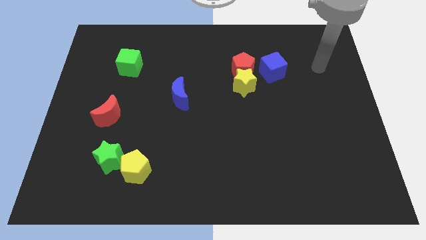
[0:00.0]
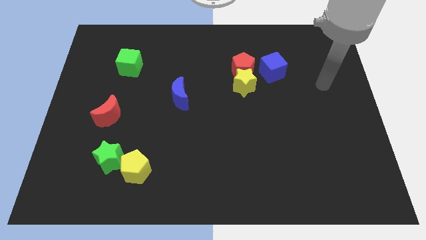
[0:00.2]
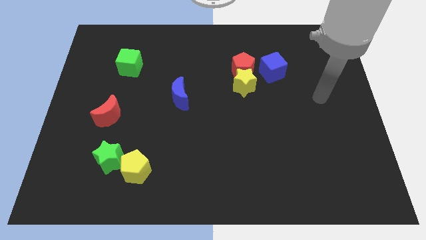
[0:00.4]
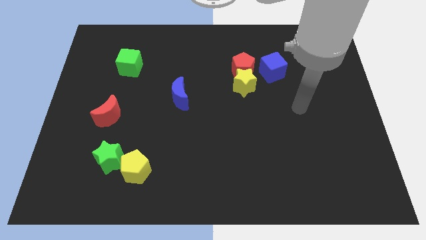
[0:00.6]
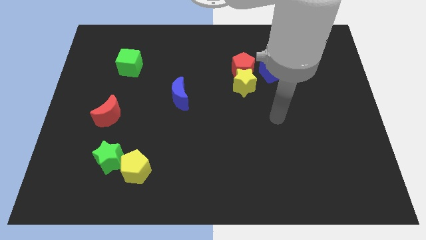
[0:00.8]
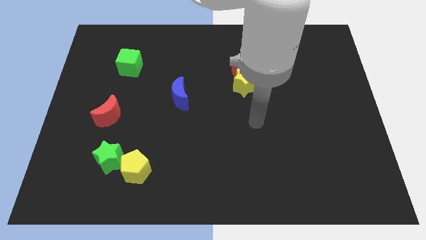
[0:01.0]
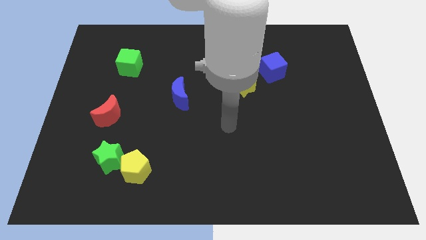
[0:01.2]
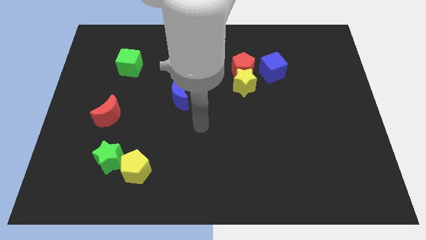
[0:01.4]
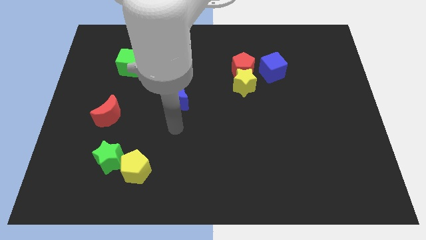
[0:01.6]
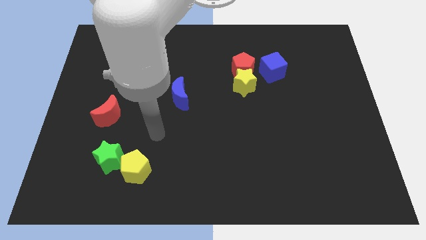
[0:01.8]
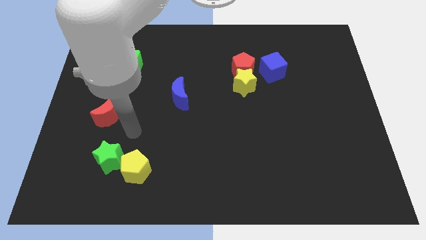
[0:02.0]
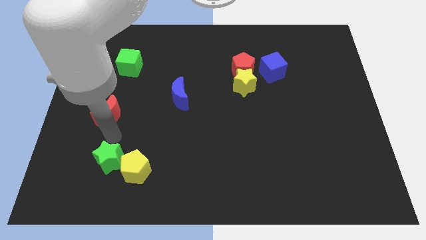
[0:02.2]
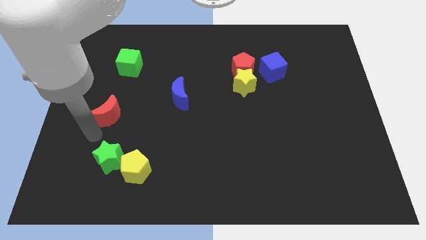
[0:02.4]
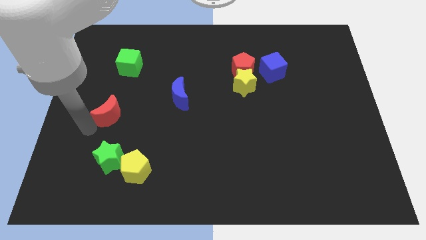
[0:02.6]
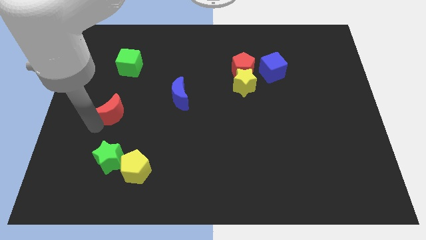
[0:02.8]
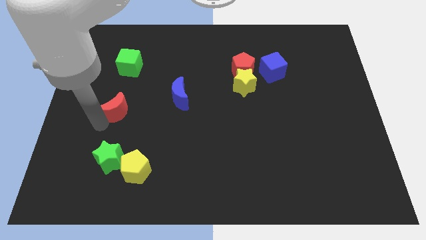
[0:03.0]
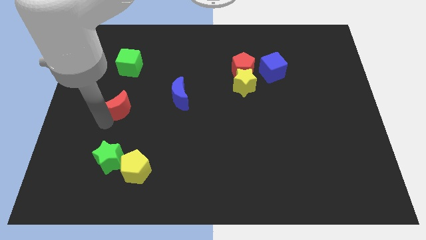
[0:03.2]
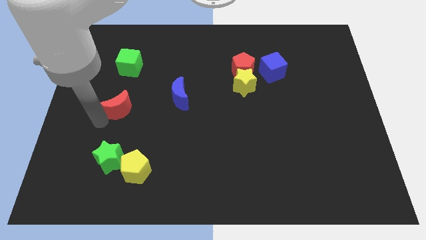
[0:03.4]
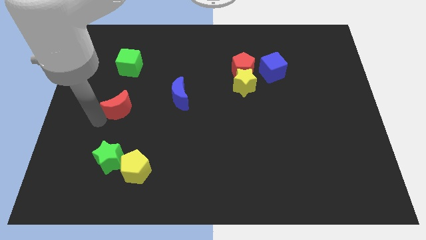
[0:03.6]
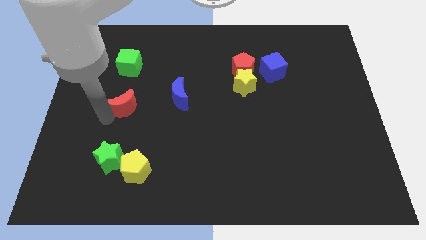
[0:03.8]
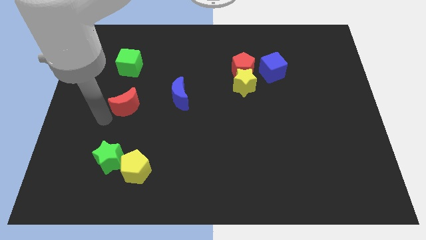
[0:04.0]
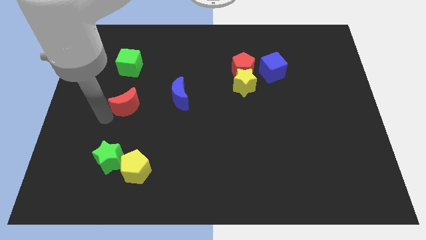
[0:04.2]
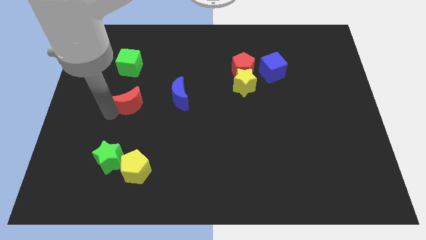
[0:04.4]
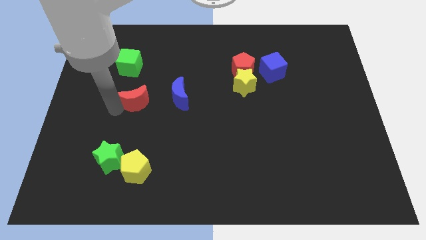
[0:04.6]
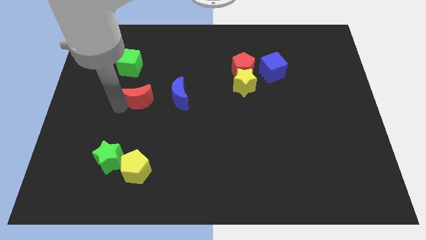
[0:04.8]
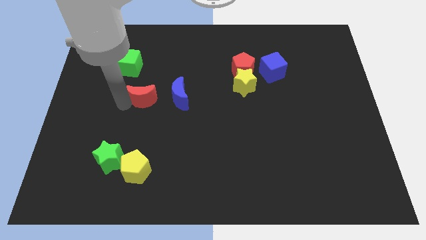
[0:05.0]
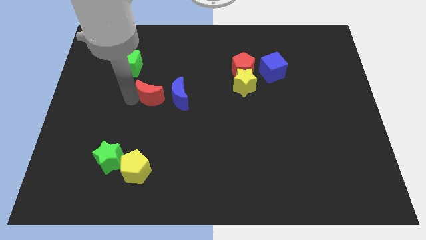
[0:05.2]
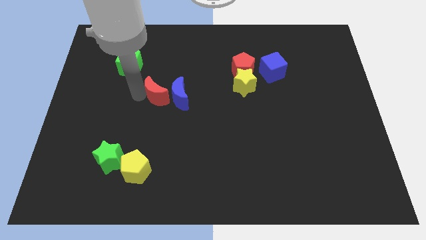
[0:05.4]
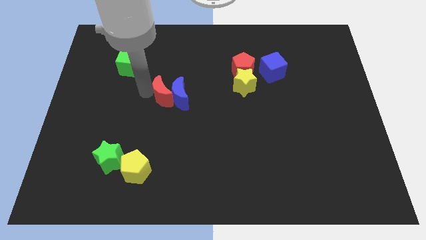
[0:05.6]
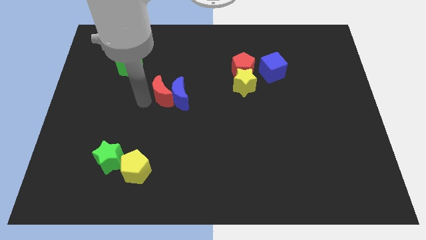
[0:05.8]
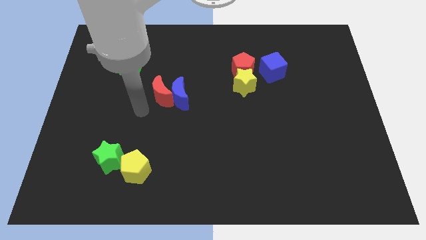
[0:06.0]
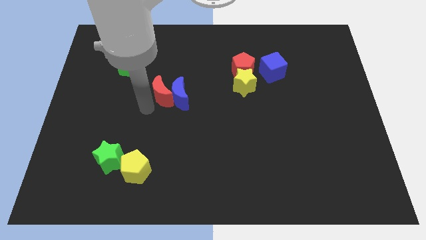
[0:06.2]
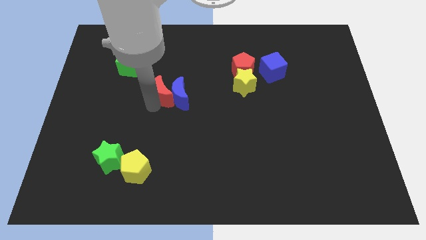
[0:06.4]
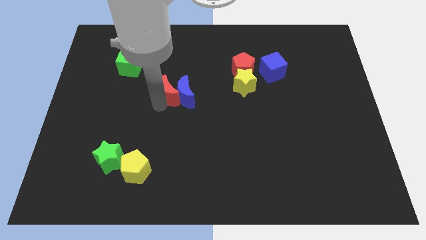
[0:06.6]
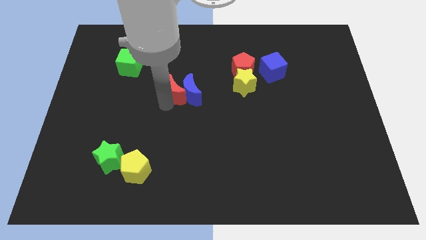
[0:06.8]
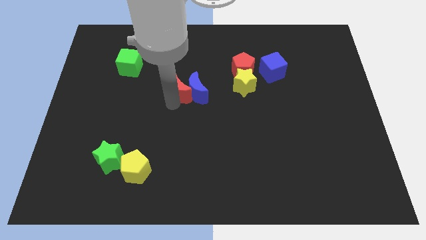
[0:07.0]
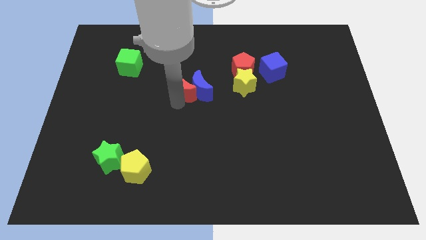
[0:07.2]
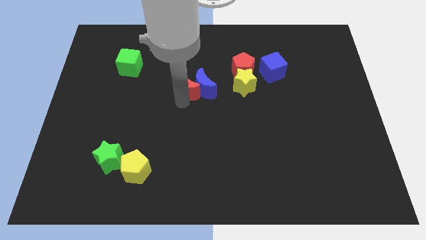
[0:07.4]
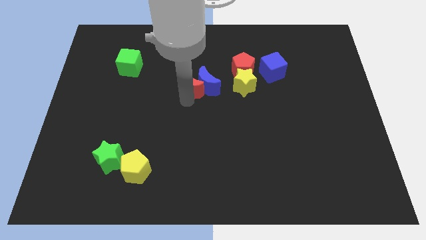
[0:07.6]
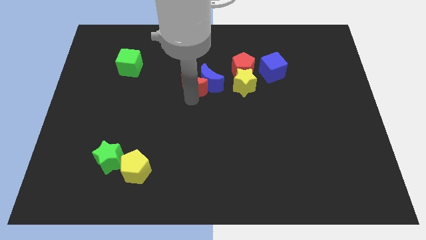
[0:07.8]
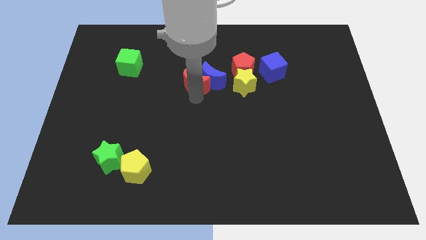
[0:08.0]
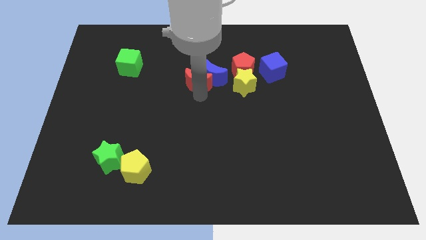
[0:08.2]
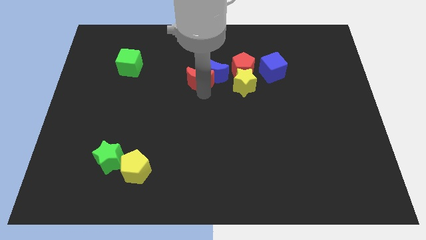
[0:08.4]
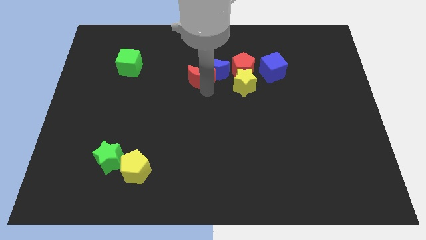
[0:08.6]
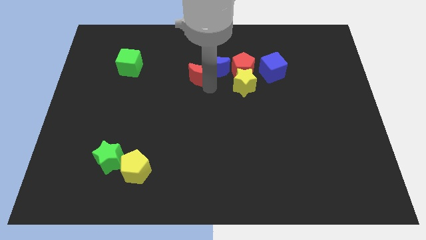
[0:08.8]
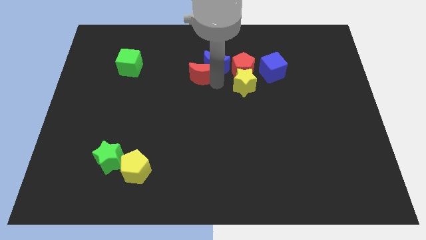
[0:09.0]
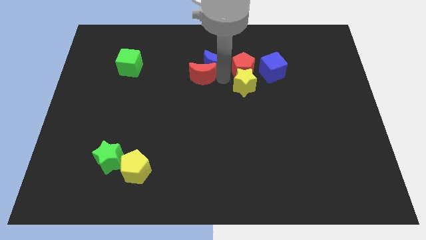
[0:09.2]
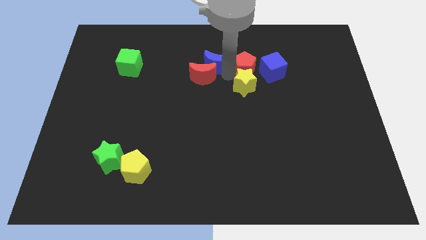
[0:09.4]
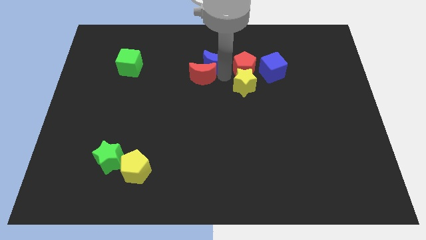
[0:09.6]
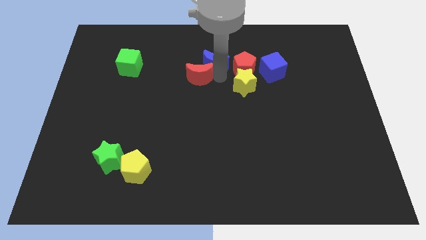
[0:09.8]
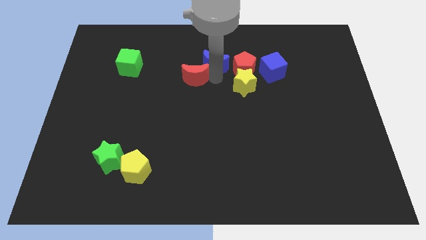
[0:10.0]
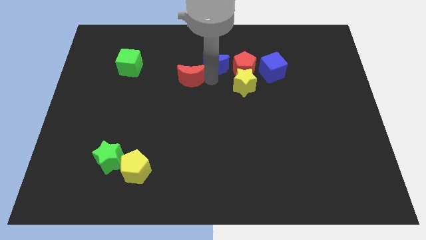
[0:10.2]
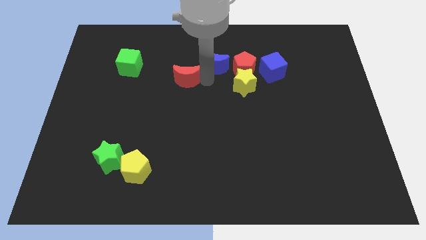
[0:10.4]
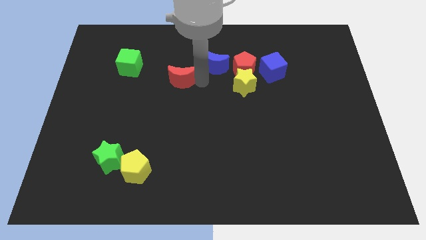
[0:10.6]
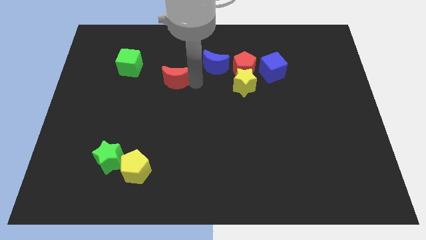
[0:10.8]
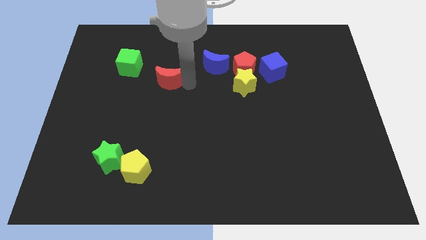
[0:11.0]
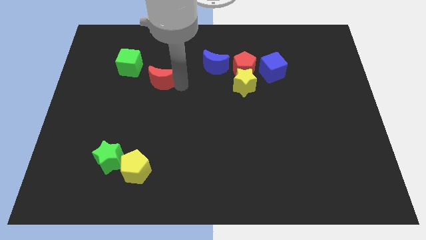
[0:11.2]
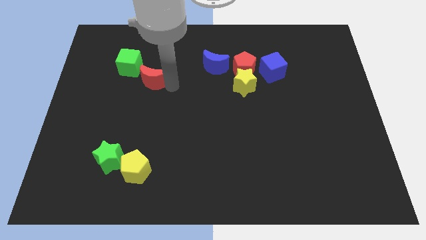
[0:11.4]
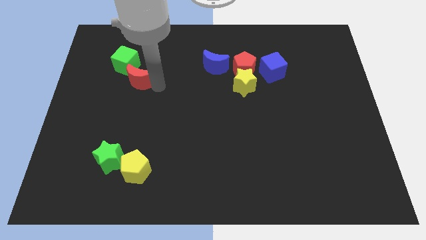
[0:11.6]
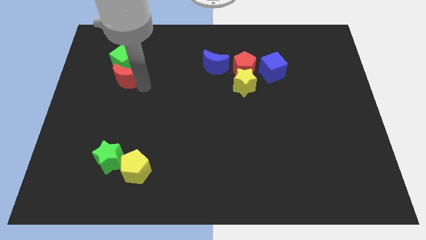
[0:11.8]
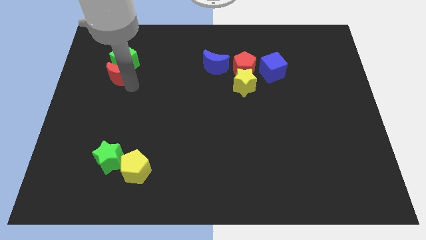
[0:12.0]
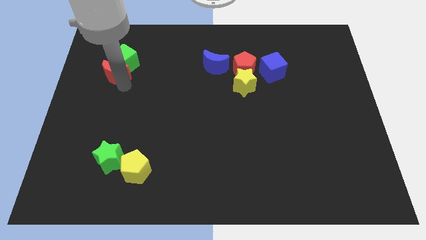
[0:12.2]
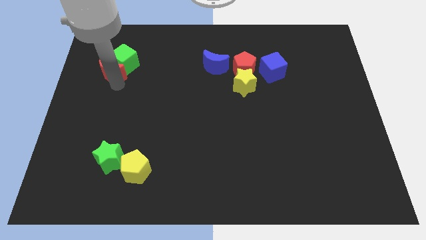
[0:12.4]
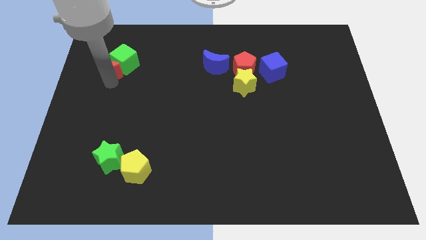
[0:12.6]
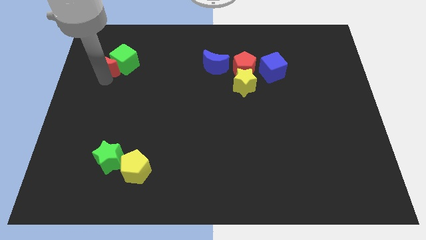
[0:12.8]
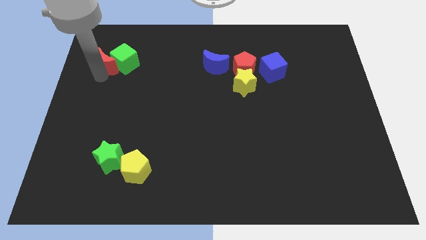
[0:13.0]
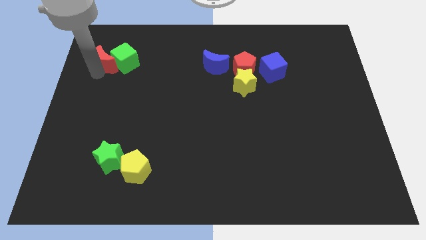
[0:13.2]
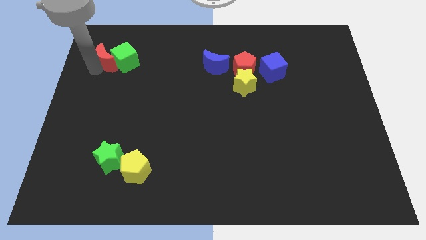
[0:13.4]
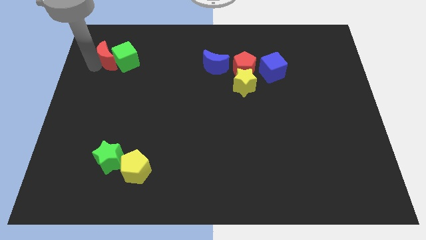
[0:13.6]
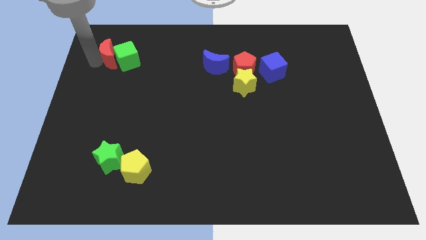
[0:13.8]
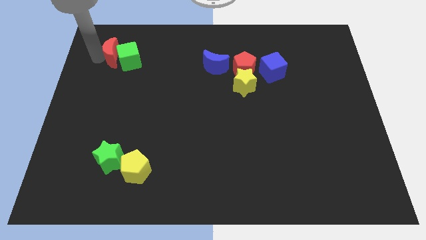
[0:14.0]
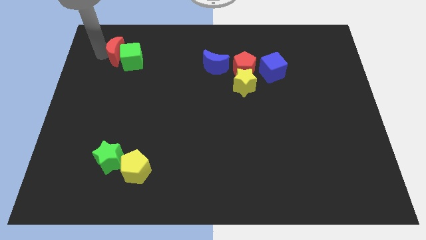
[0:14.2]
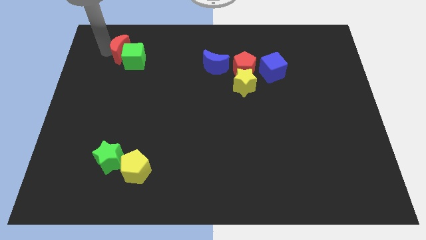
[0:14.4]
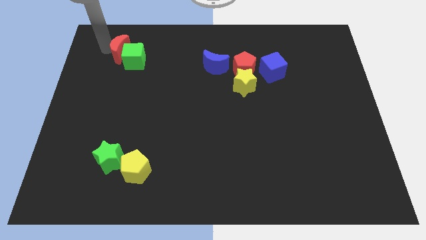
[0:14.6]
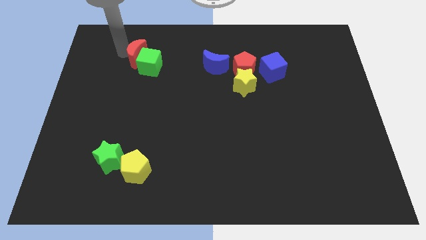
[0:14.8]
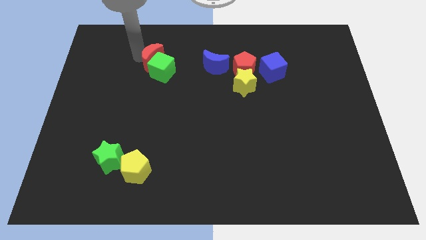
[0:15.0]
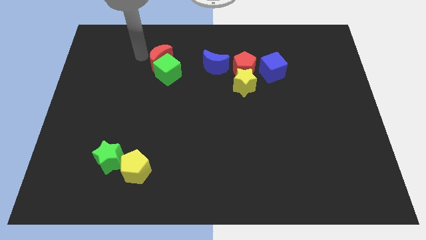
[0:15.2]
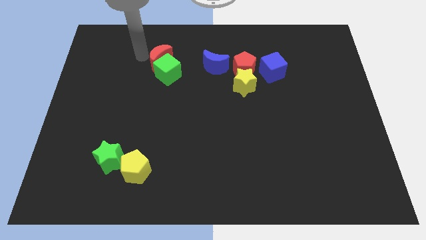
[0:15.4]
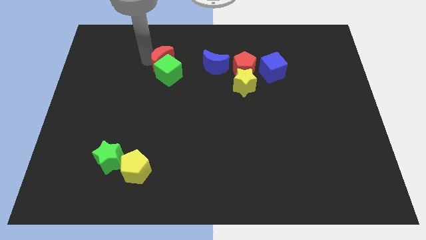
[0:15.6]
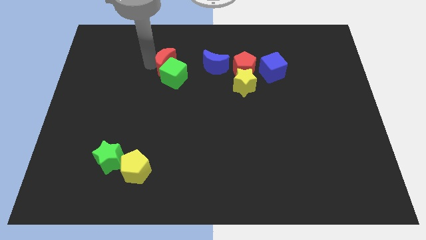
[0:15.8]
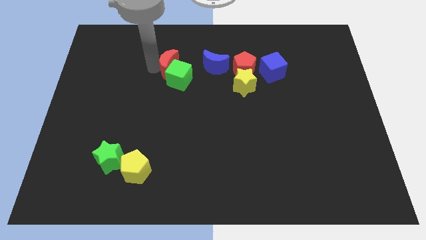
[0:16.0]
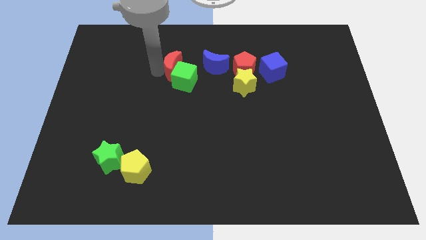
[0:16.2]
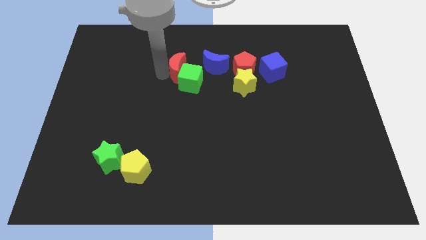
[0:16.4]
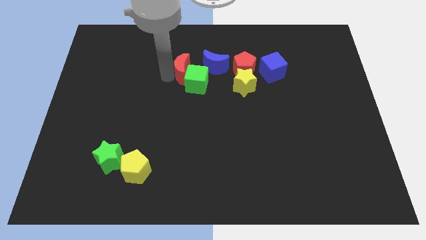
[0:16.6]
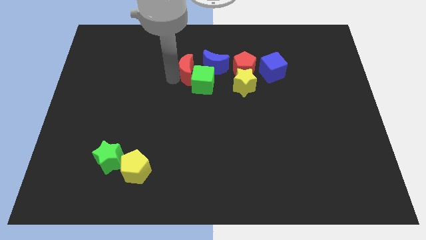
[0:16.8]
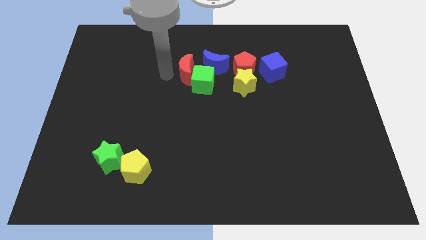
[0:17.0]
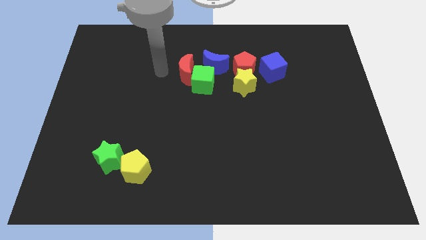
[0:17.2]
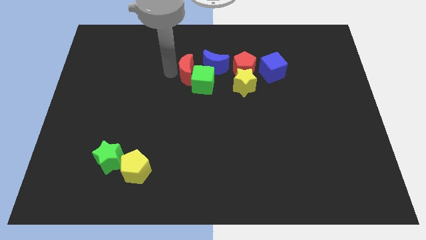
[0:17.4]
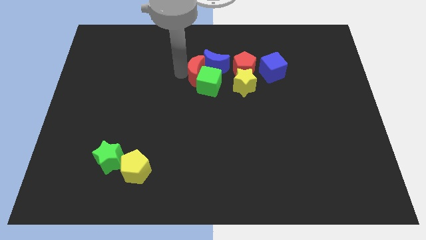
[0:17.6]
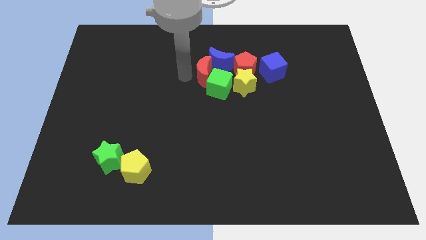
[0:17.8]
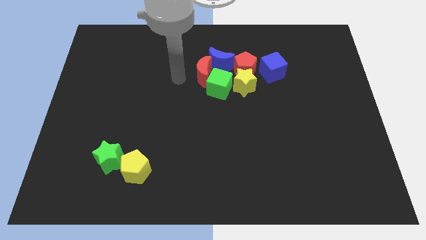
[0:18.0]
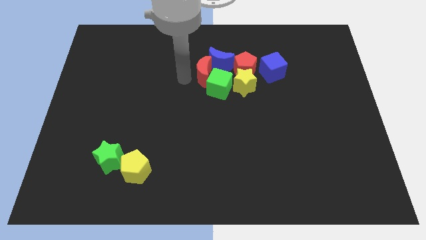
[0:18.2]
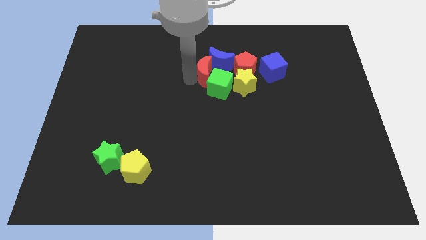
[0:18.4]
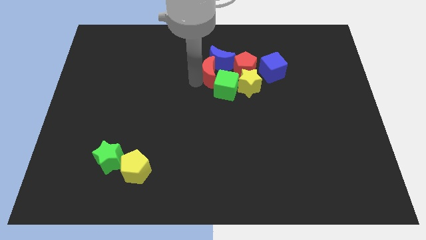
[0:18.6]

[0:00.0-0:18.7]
put the red moon to the left of the blue cube
